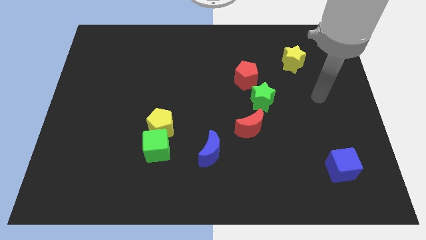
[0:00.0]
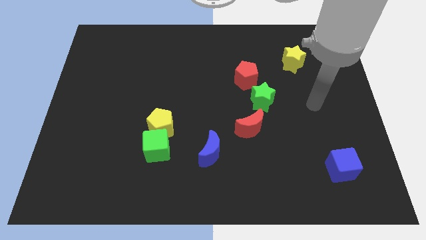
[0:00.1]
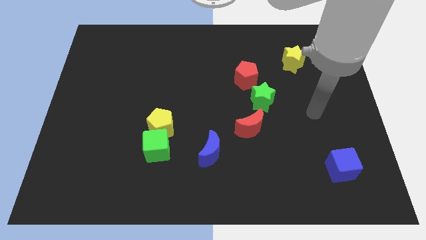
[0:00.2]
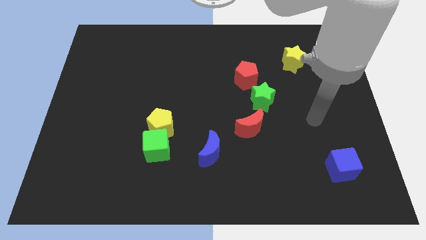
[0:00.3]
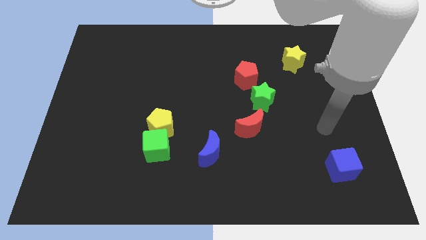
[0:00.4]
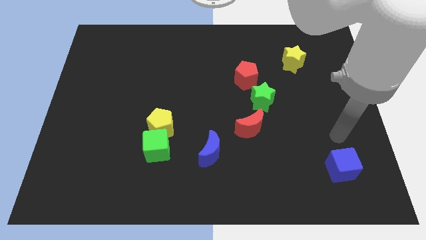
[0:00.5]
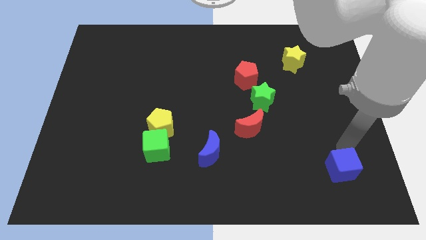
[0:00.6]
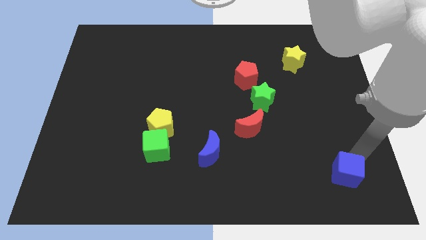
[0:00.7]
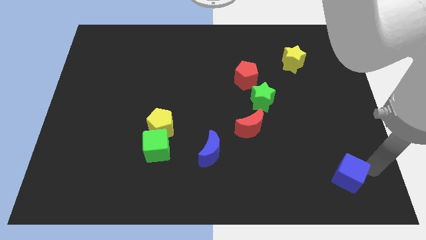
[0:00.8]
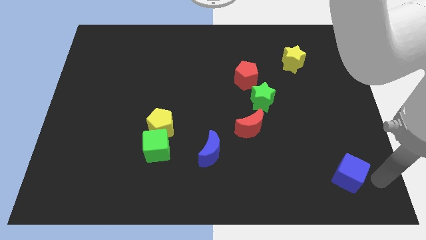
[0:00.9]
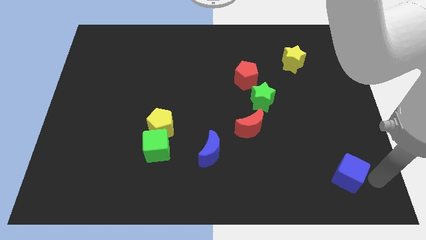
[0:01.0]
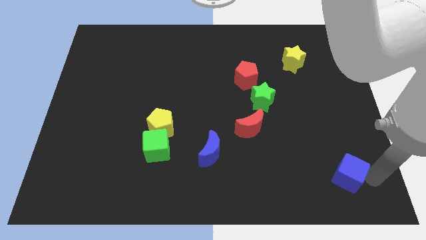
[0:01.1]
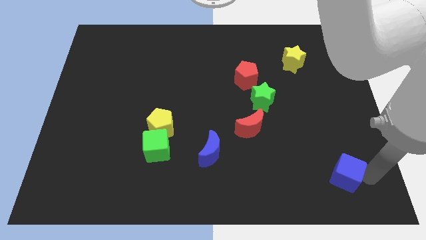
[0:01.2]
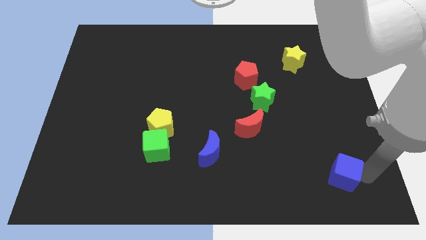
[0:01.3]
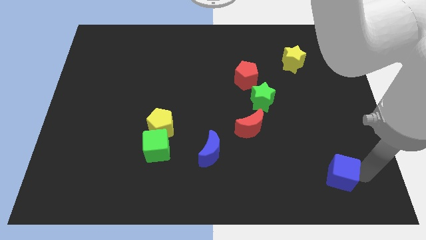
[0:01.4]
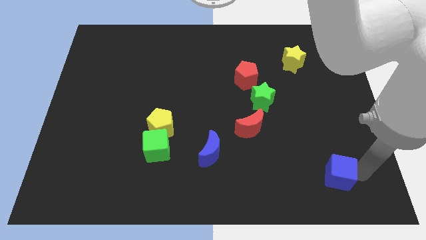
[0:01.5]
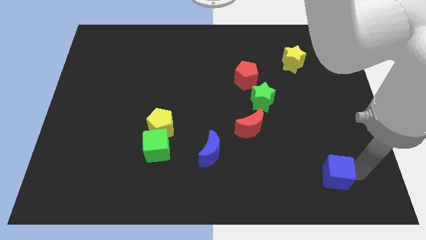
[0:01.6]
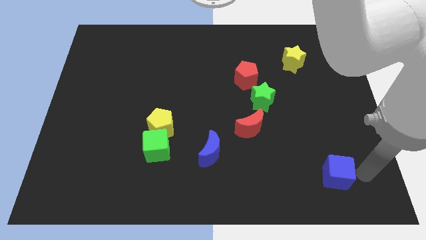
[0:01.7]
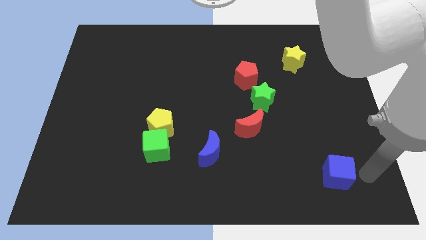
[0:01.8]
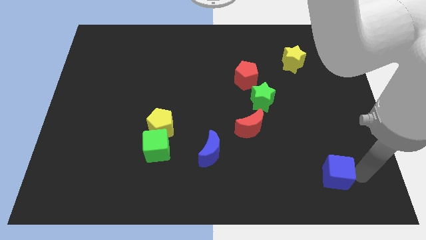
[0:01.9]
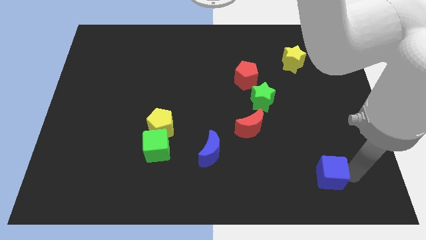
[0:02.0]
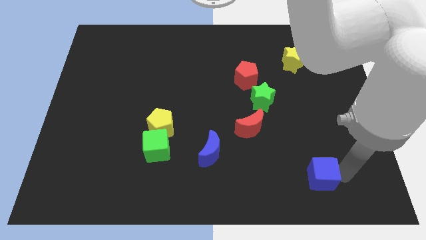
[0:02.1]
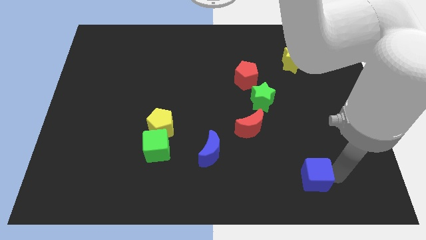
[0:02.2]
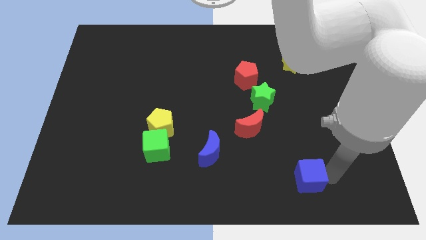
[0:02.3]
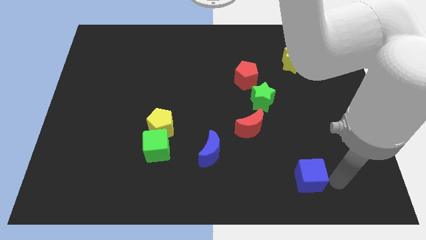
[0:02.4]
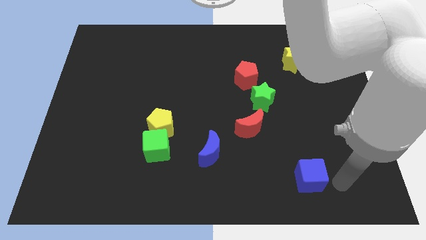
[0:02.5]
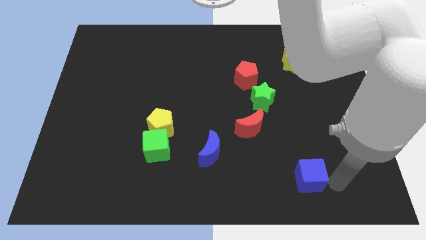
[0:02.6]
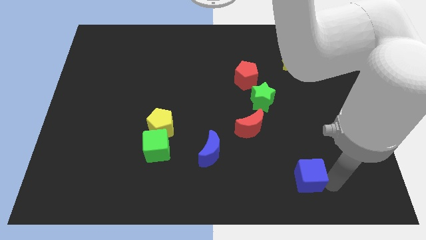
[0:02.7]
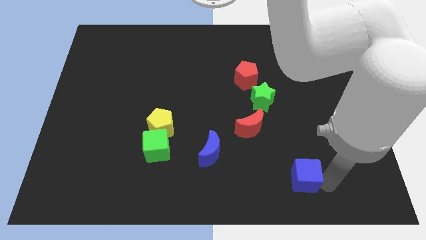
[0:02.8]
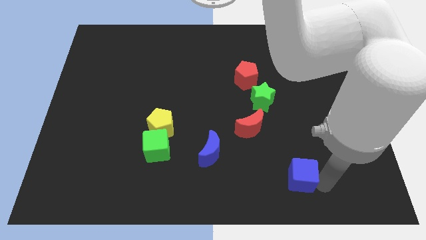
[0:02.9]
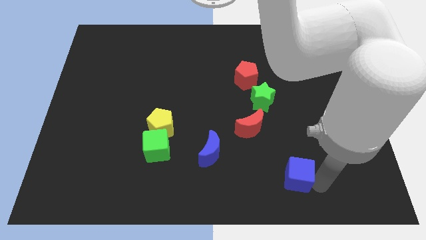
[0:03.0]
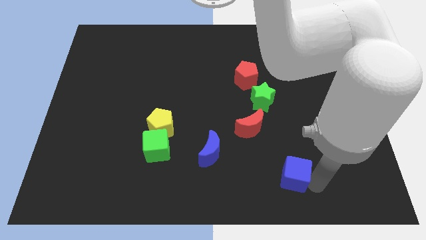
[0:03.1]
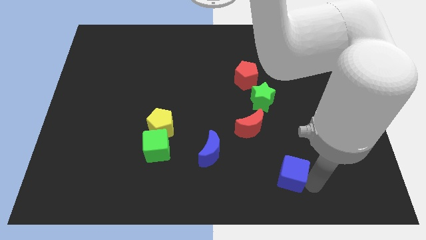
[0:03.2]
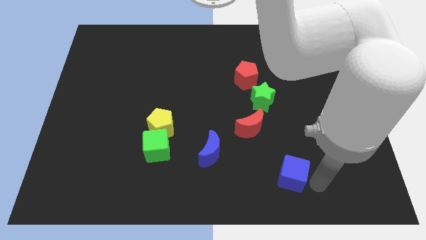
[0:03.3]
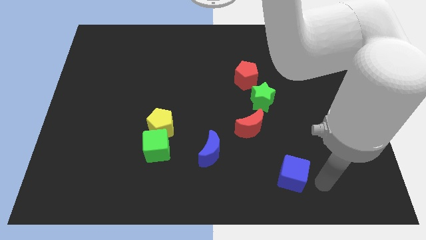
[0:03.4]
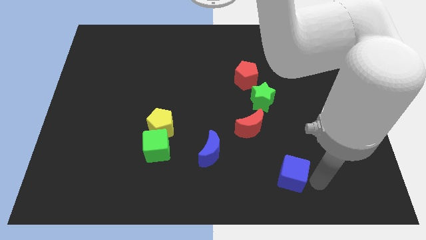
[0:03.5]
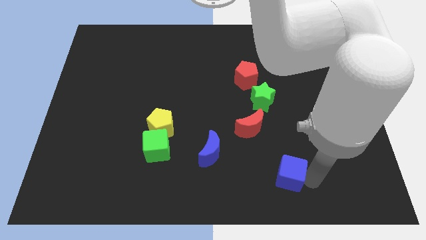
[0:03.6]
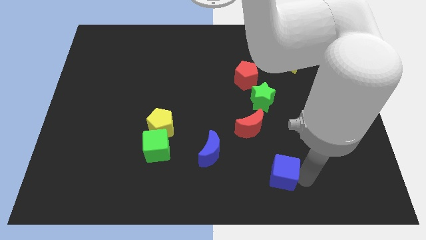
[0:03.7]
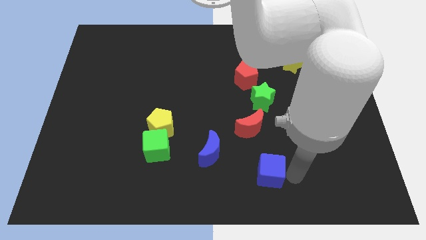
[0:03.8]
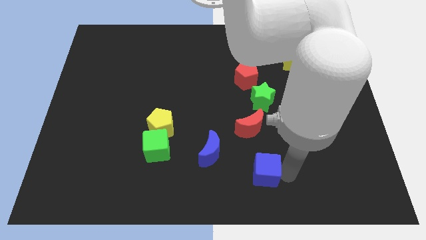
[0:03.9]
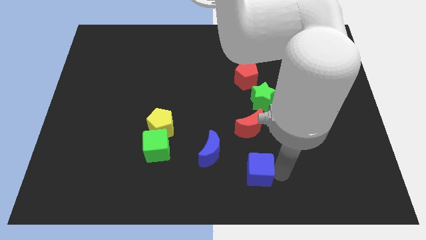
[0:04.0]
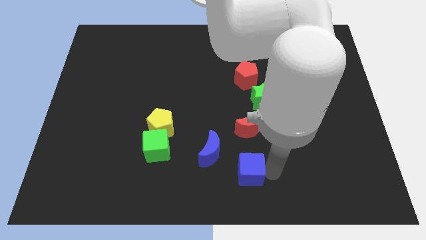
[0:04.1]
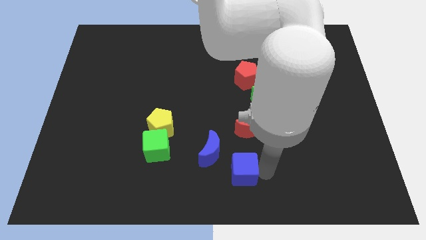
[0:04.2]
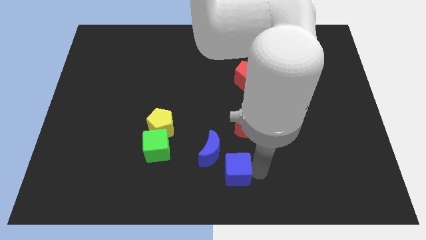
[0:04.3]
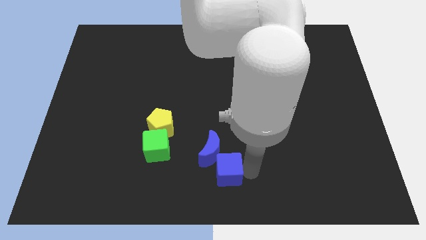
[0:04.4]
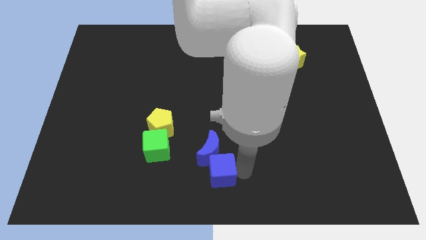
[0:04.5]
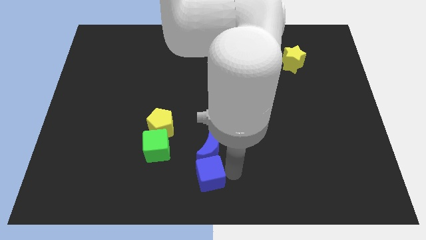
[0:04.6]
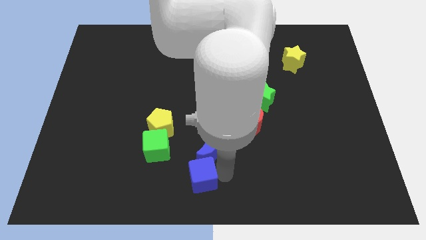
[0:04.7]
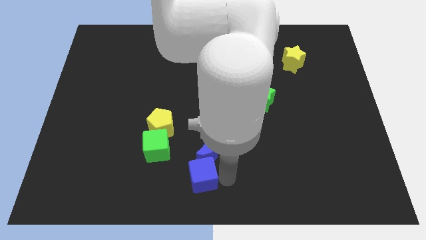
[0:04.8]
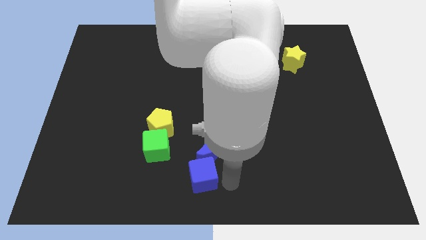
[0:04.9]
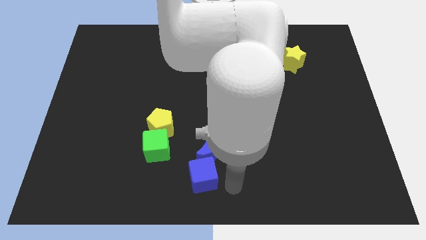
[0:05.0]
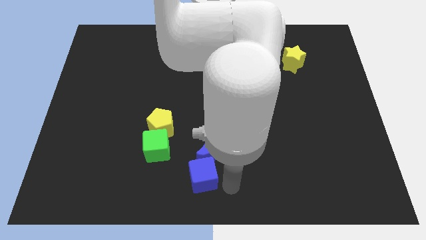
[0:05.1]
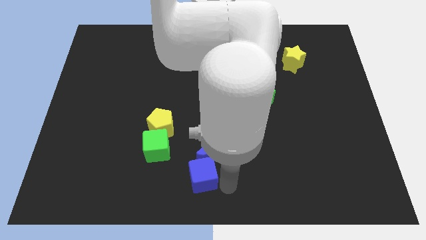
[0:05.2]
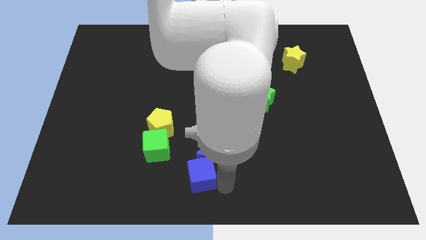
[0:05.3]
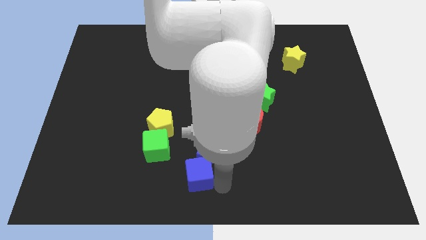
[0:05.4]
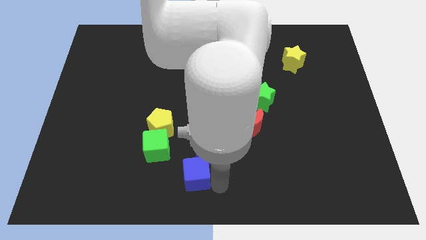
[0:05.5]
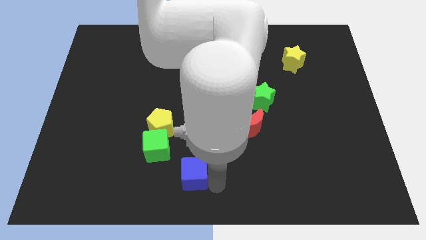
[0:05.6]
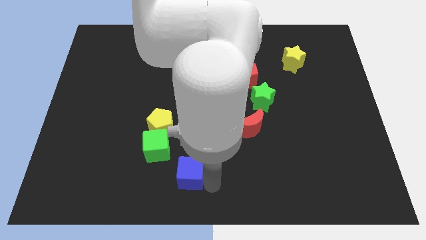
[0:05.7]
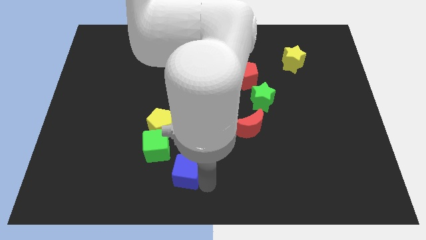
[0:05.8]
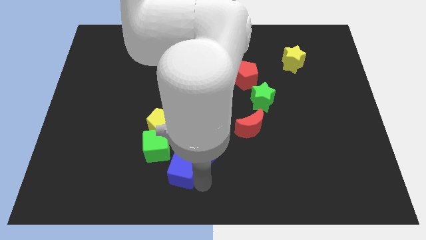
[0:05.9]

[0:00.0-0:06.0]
slide the blue cube left of the blue moon

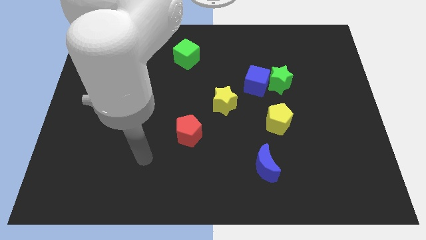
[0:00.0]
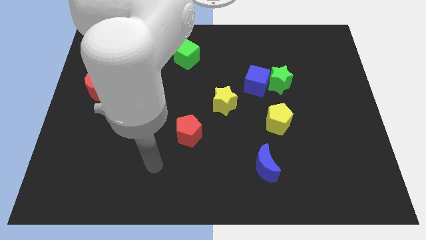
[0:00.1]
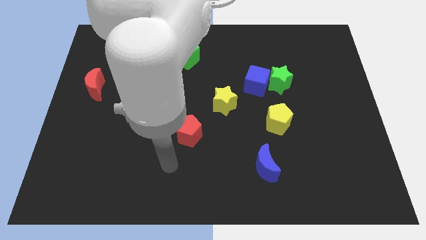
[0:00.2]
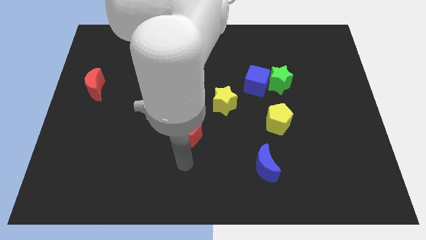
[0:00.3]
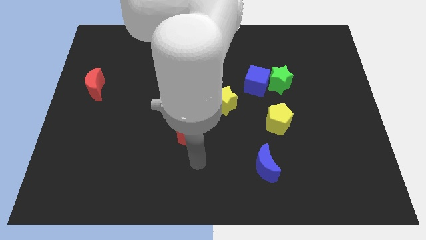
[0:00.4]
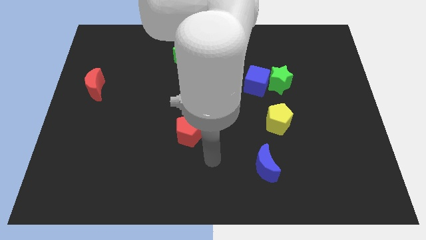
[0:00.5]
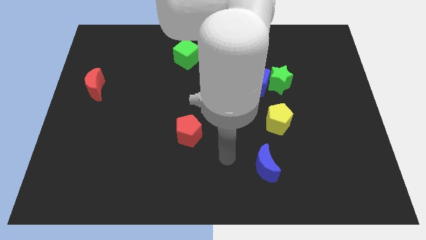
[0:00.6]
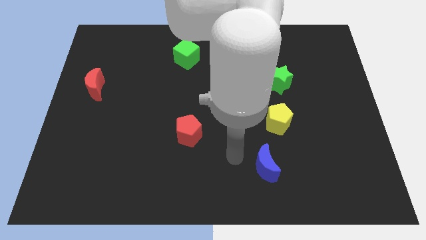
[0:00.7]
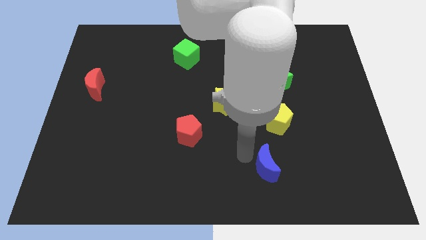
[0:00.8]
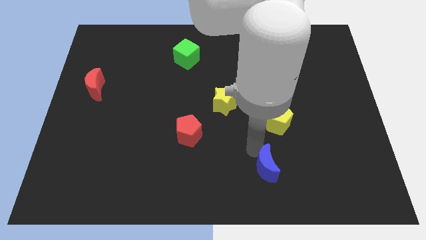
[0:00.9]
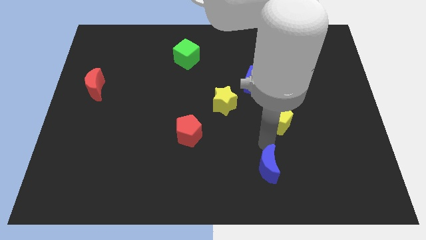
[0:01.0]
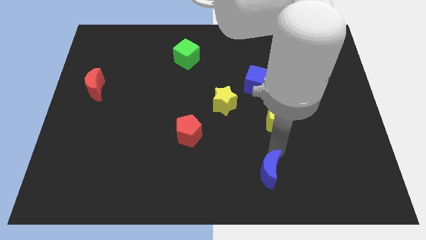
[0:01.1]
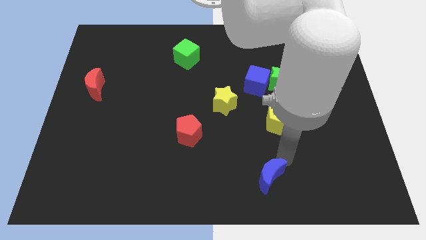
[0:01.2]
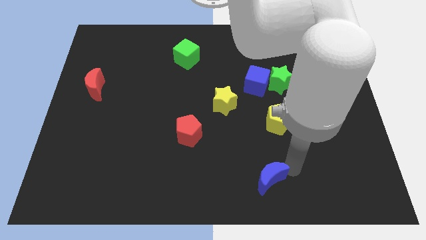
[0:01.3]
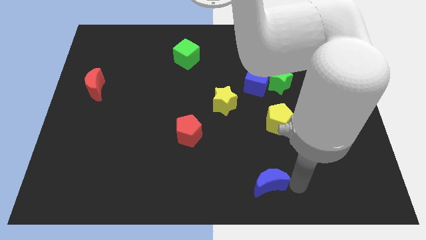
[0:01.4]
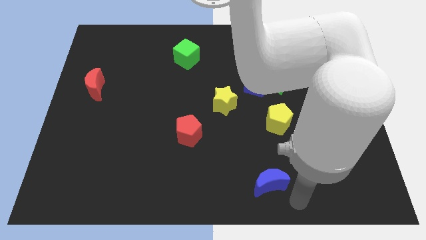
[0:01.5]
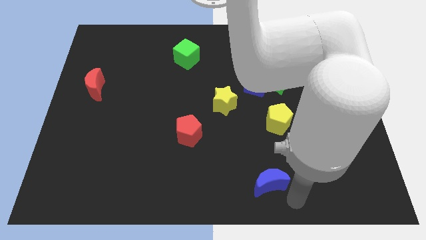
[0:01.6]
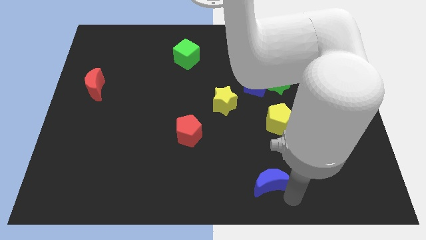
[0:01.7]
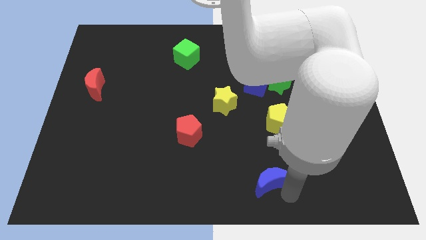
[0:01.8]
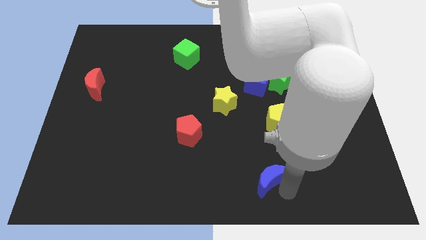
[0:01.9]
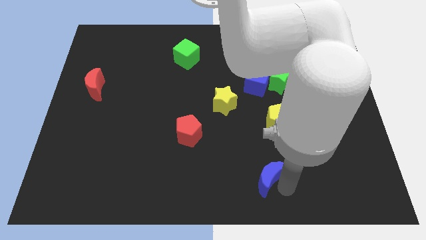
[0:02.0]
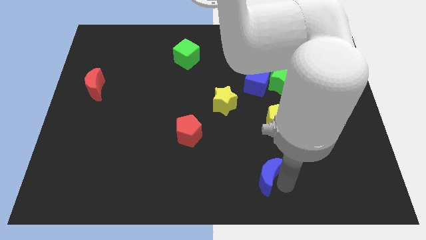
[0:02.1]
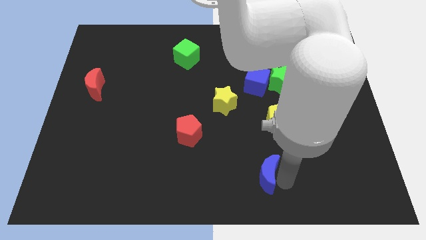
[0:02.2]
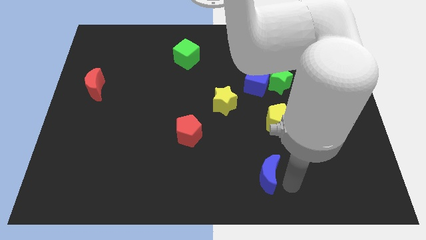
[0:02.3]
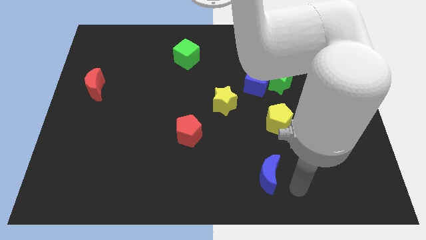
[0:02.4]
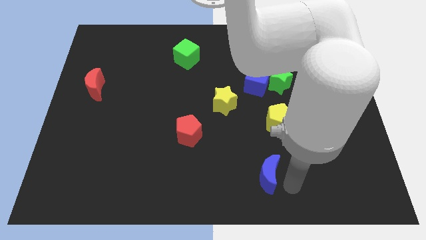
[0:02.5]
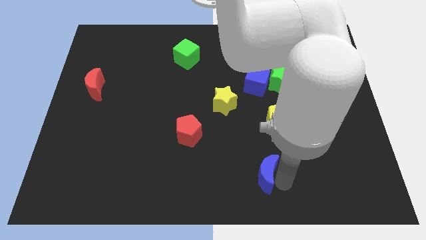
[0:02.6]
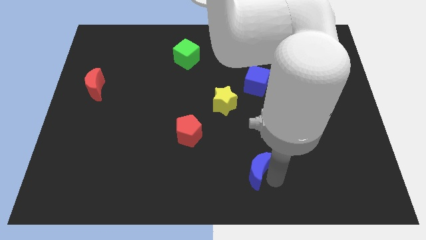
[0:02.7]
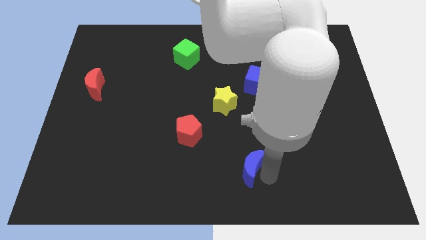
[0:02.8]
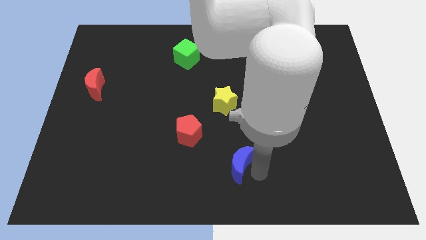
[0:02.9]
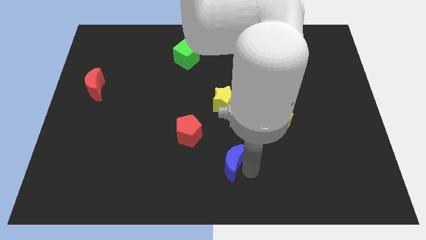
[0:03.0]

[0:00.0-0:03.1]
slide the blue moon to the bottom right of the red pentagon
